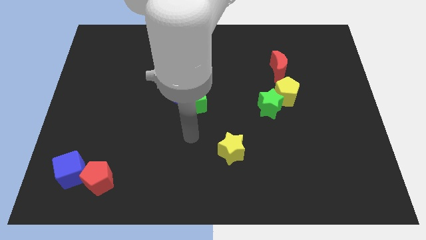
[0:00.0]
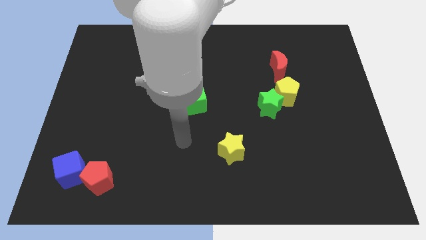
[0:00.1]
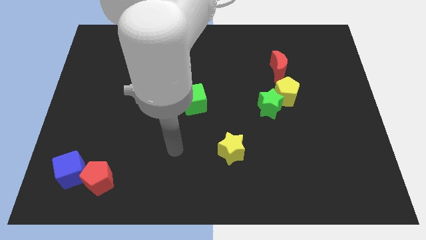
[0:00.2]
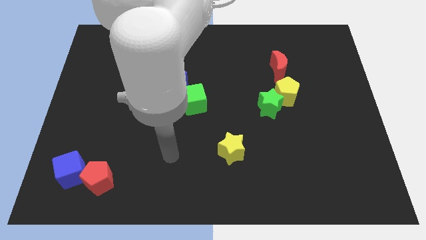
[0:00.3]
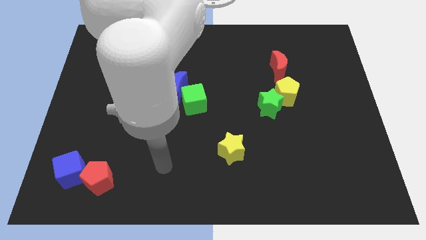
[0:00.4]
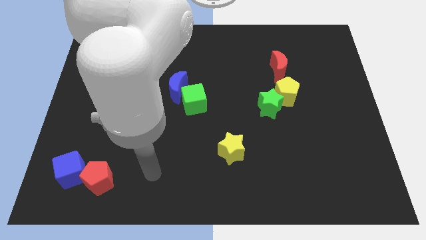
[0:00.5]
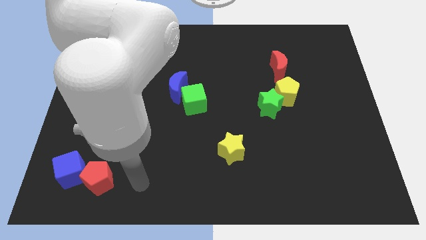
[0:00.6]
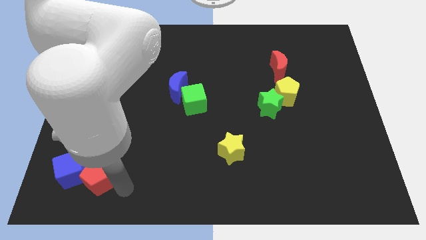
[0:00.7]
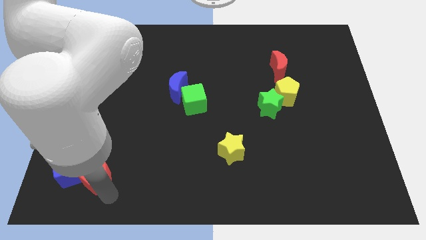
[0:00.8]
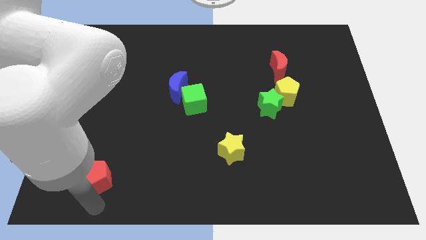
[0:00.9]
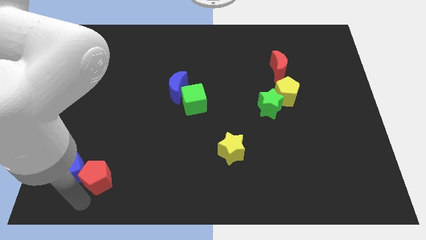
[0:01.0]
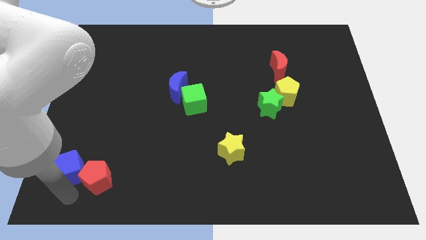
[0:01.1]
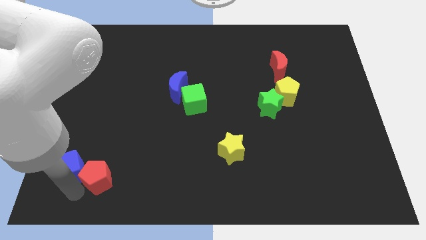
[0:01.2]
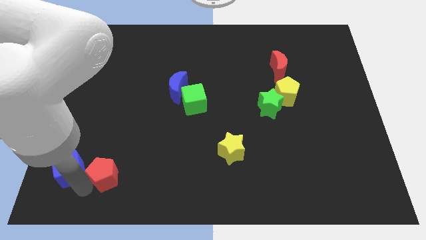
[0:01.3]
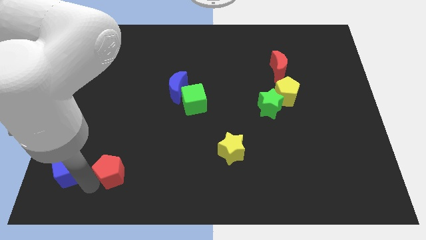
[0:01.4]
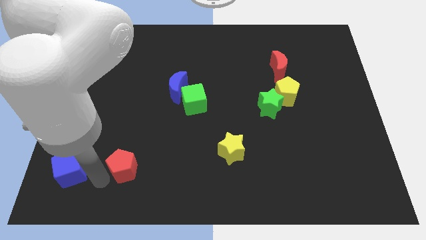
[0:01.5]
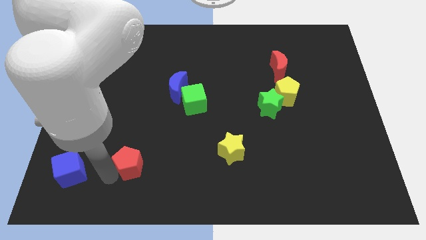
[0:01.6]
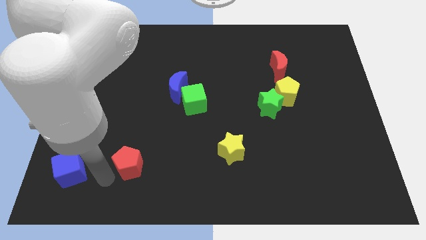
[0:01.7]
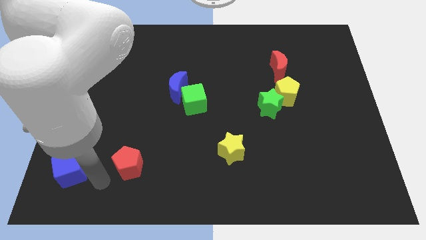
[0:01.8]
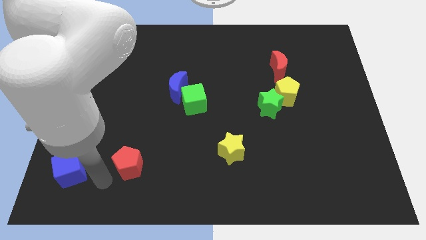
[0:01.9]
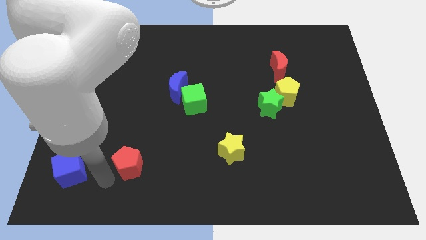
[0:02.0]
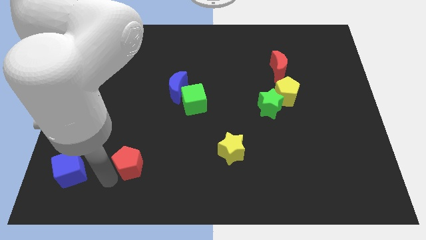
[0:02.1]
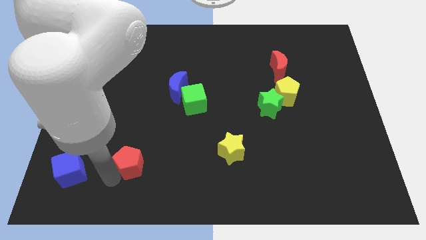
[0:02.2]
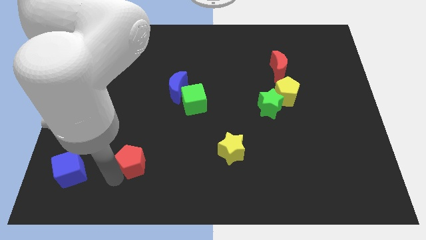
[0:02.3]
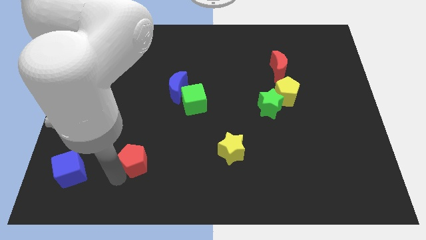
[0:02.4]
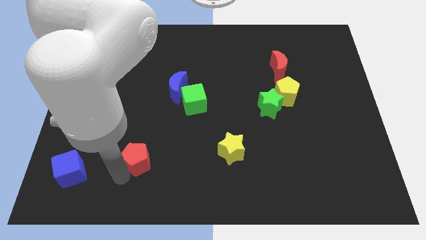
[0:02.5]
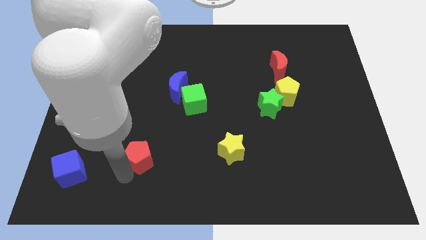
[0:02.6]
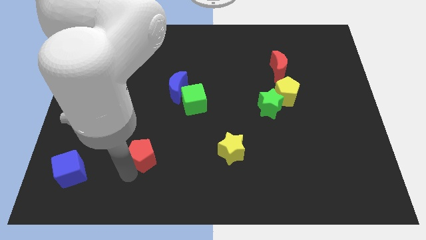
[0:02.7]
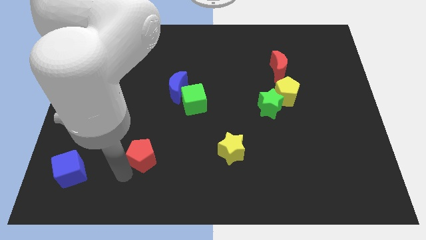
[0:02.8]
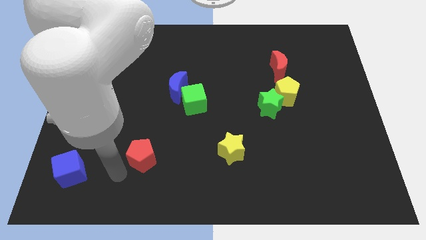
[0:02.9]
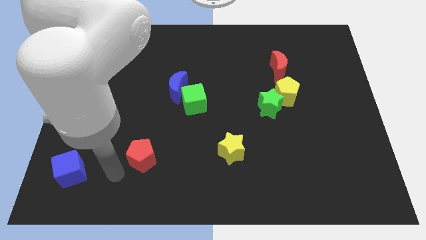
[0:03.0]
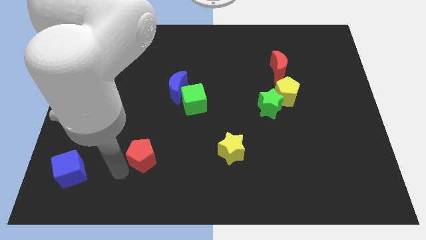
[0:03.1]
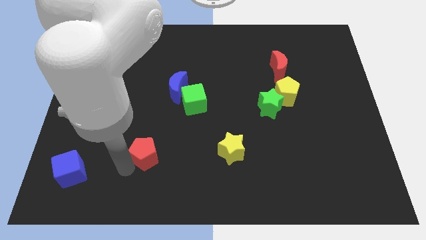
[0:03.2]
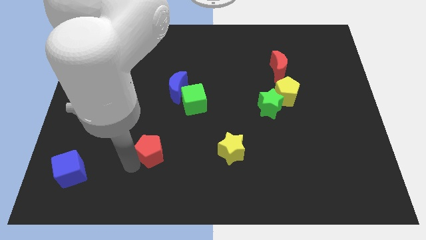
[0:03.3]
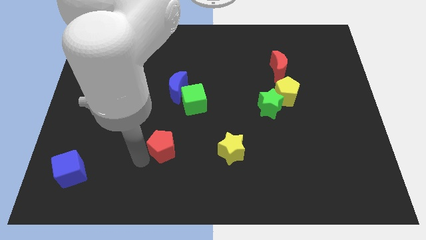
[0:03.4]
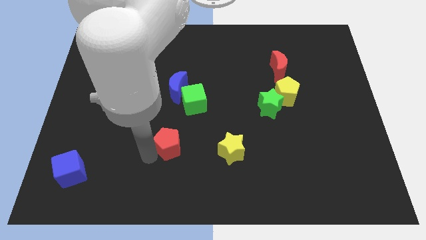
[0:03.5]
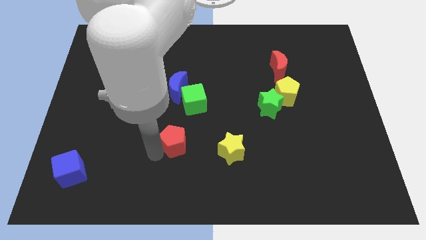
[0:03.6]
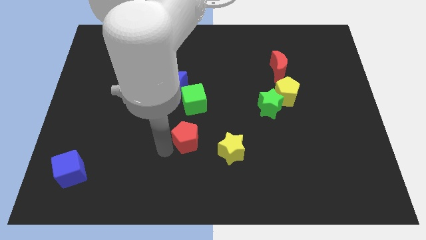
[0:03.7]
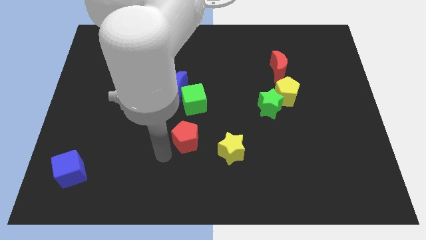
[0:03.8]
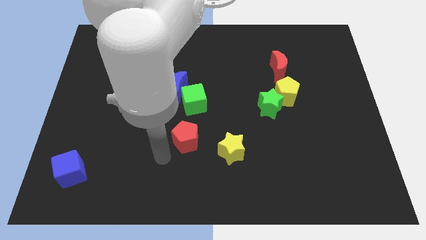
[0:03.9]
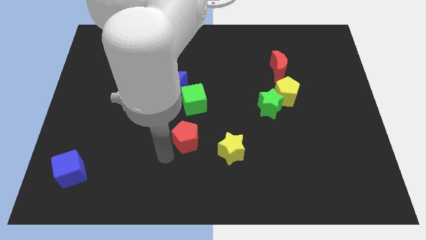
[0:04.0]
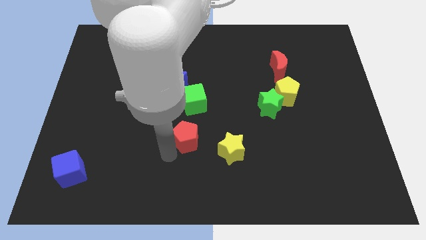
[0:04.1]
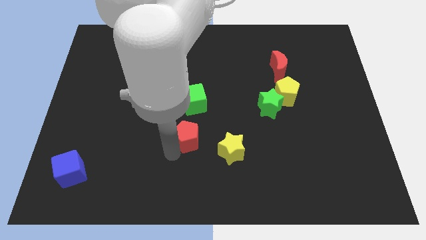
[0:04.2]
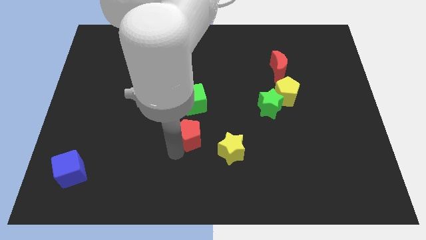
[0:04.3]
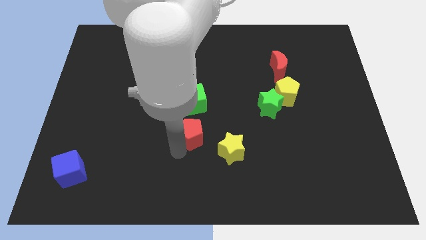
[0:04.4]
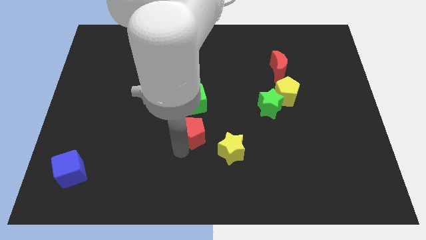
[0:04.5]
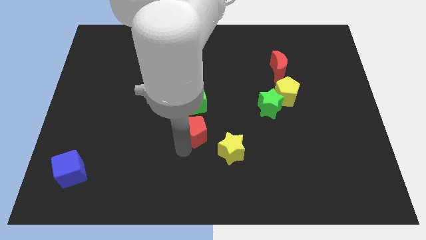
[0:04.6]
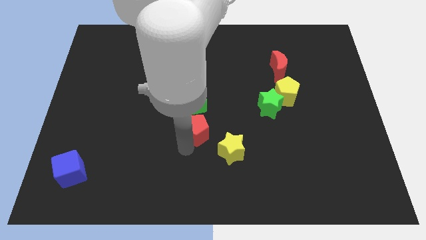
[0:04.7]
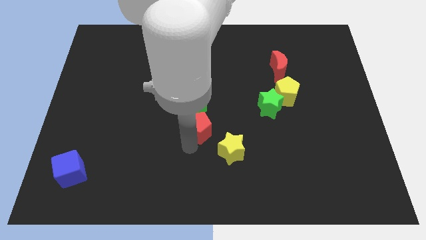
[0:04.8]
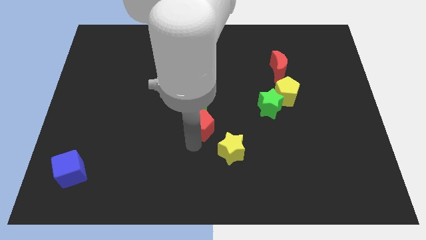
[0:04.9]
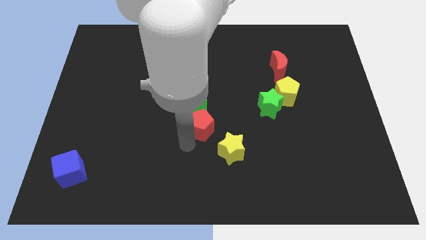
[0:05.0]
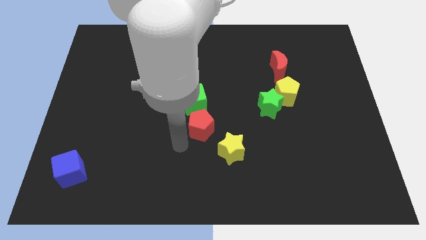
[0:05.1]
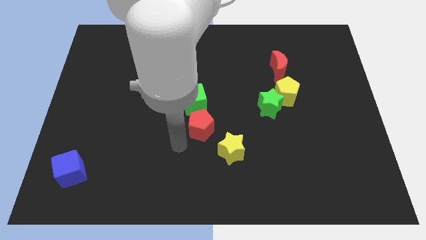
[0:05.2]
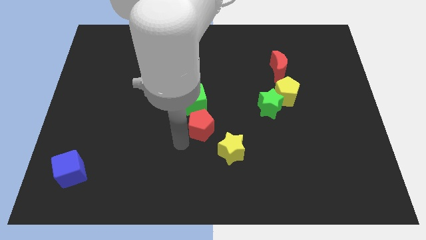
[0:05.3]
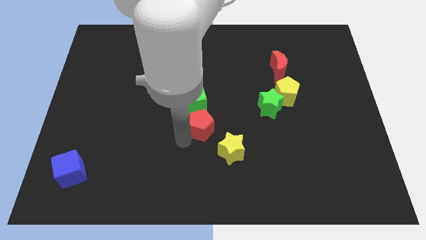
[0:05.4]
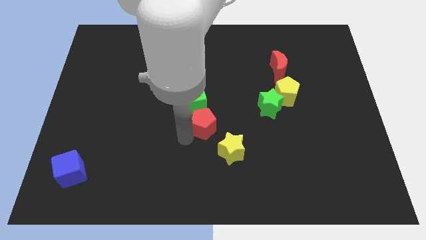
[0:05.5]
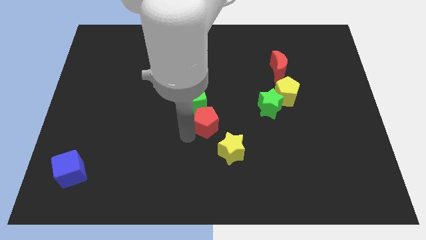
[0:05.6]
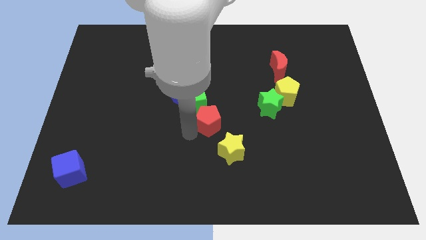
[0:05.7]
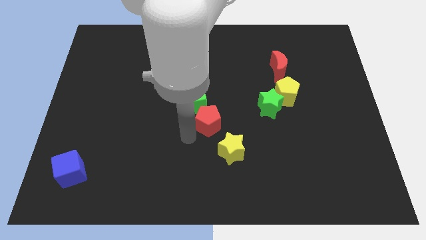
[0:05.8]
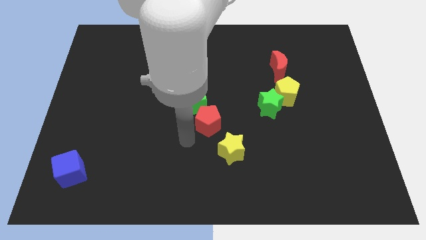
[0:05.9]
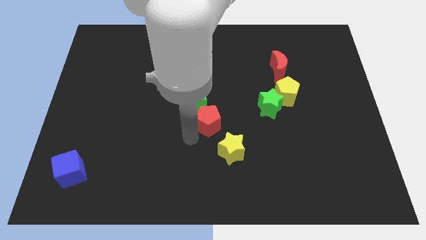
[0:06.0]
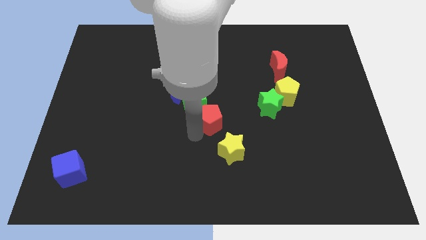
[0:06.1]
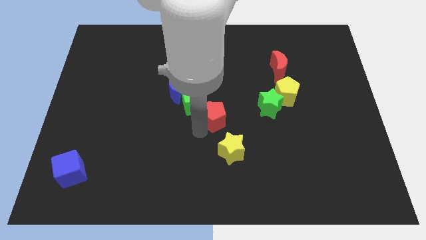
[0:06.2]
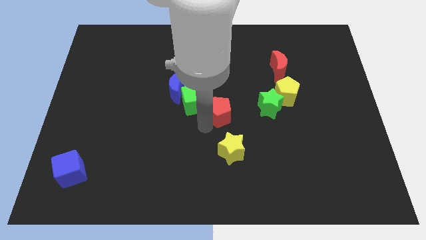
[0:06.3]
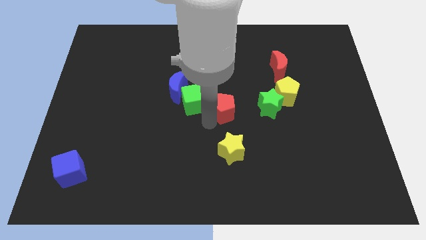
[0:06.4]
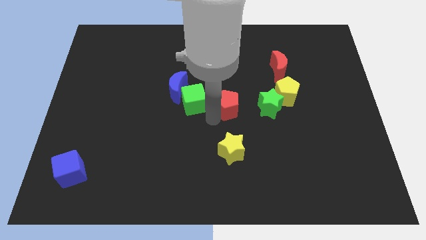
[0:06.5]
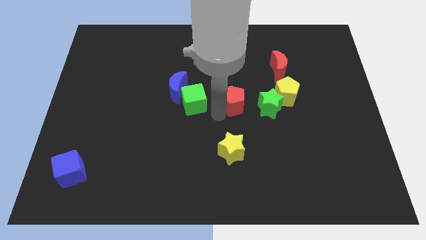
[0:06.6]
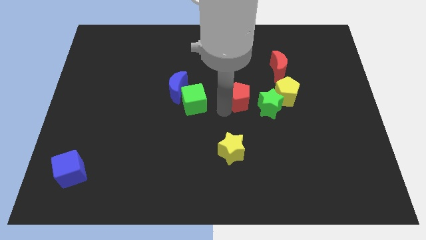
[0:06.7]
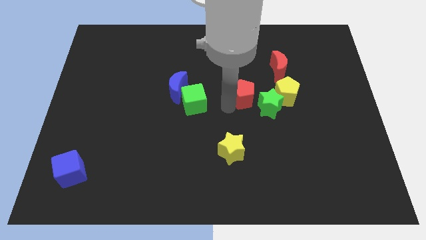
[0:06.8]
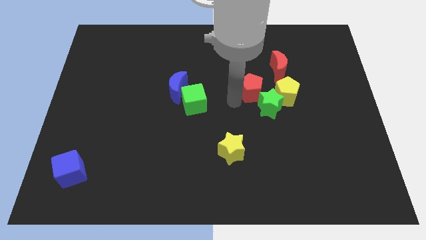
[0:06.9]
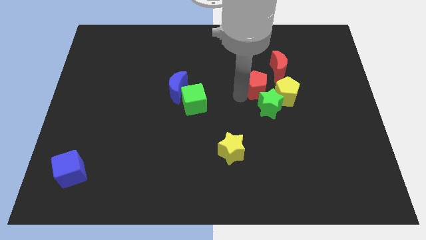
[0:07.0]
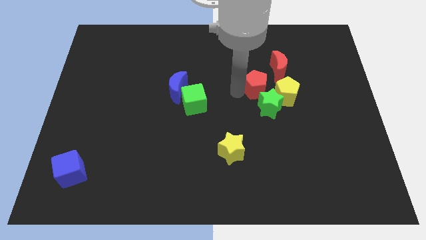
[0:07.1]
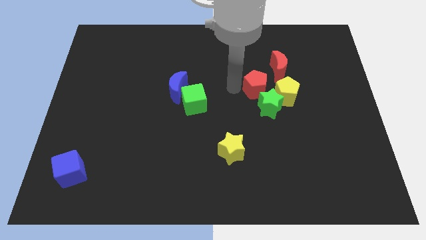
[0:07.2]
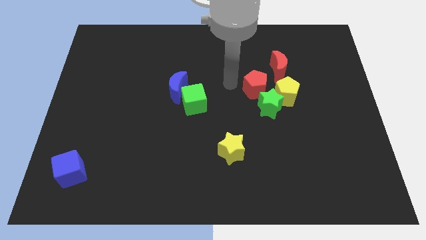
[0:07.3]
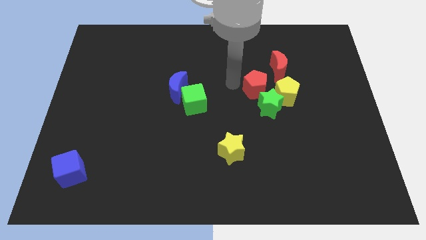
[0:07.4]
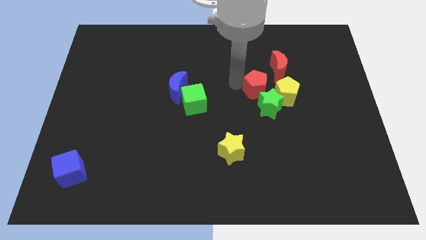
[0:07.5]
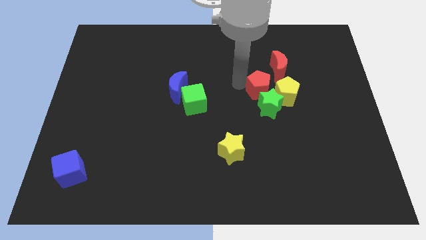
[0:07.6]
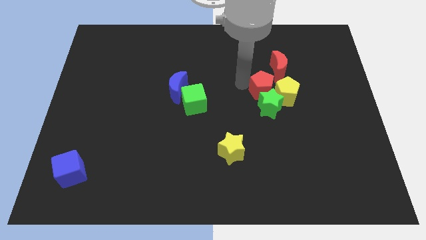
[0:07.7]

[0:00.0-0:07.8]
push the red pentagon towards the yellow pentagon

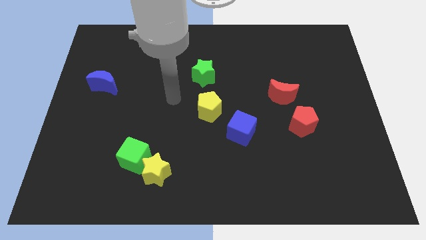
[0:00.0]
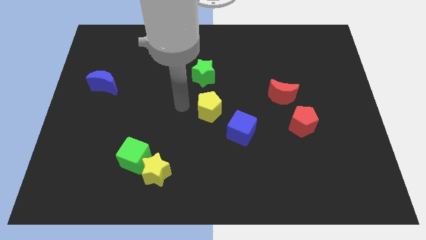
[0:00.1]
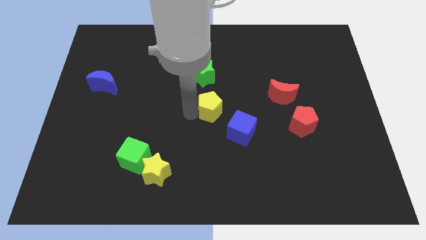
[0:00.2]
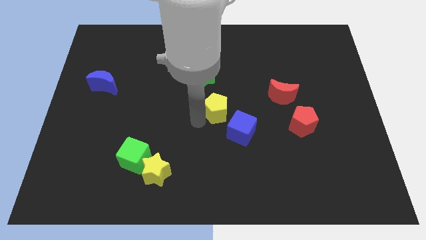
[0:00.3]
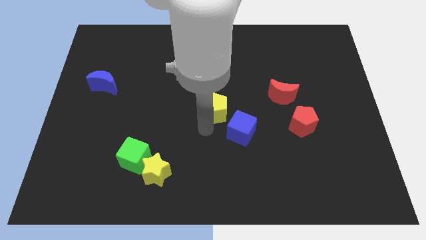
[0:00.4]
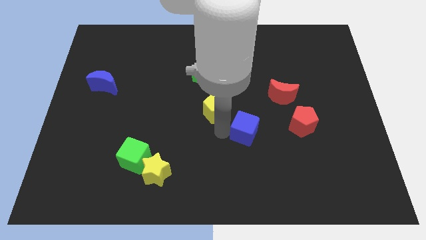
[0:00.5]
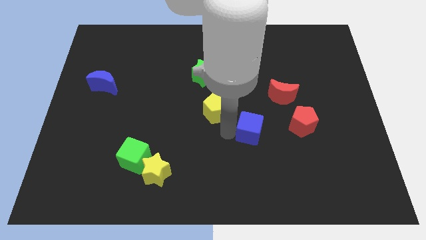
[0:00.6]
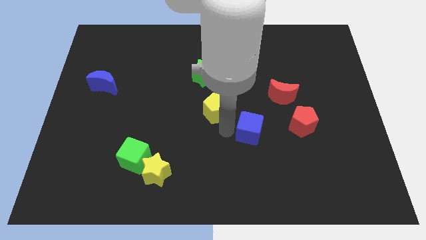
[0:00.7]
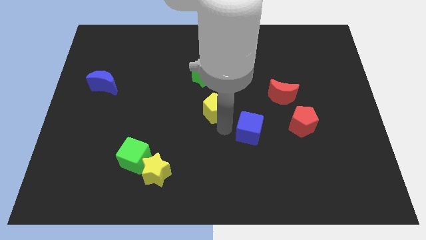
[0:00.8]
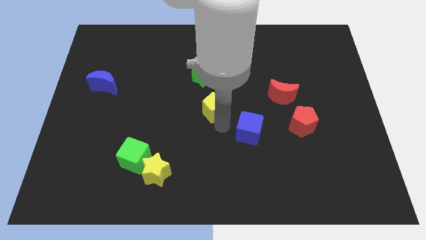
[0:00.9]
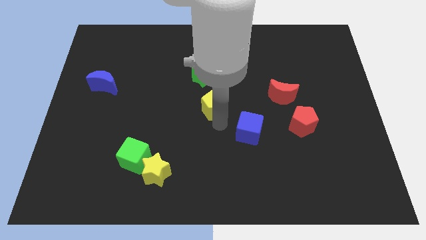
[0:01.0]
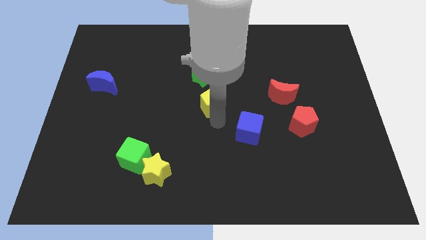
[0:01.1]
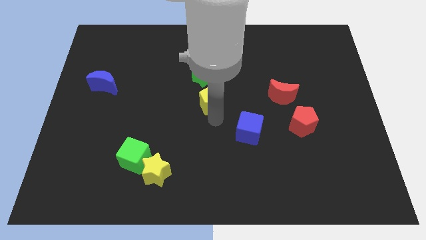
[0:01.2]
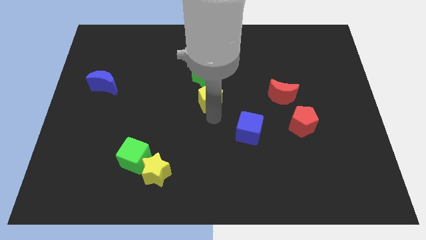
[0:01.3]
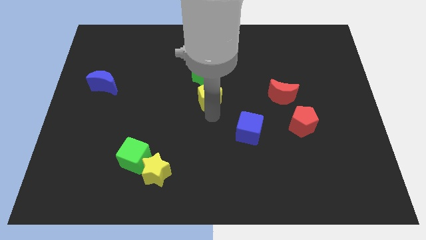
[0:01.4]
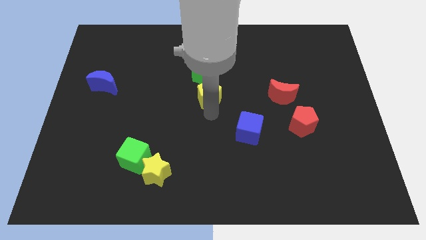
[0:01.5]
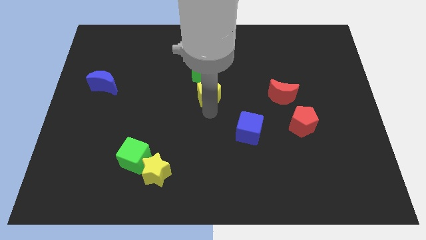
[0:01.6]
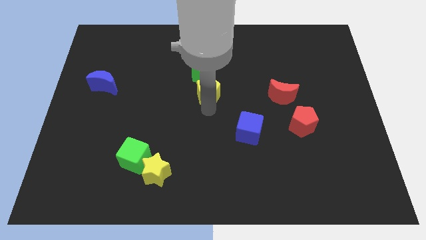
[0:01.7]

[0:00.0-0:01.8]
move the yellow pentagon close to the green star
